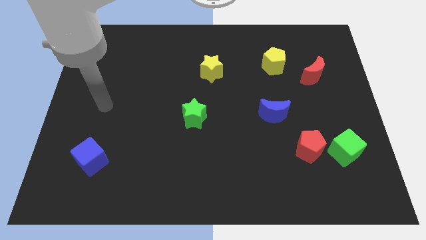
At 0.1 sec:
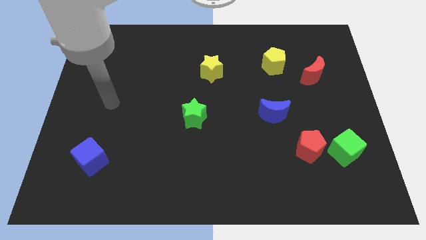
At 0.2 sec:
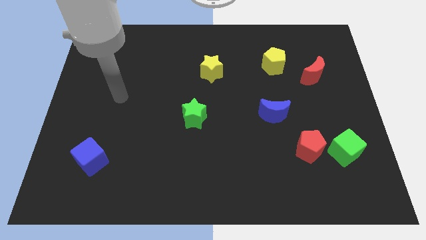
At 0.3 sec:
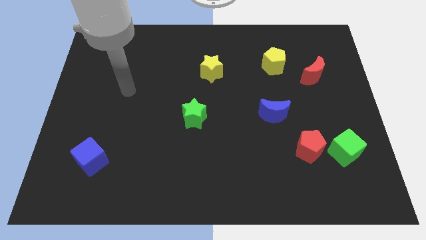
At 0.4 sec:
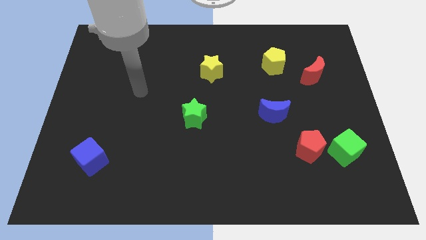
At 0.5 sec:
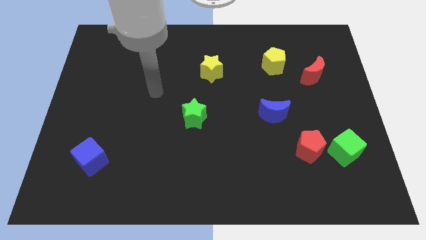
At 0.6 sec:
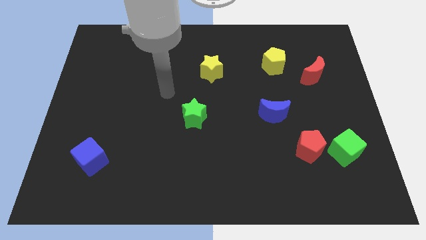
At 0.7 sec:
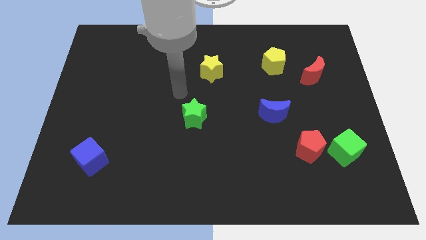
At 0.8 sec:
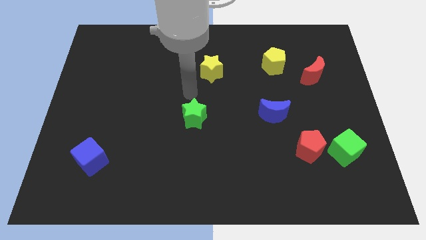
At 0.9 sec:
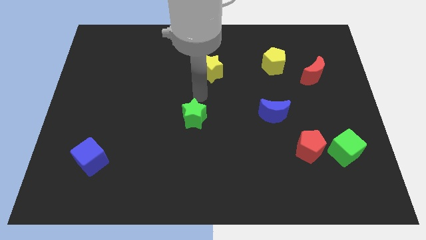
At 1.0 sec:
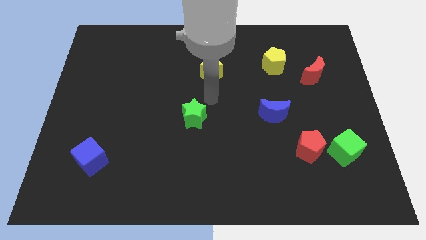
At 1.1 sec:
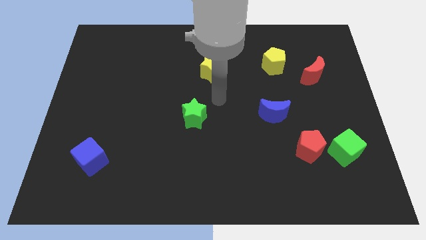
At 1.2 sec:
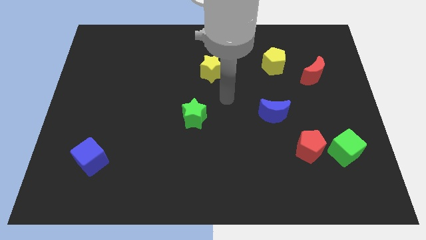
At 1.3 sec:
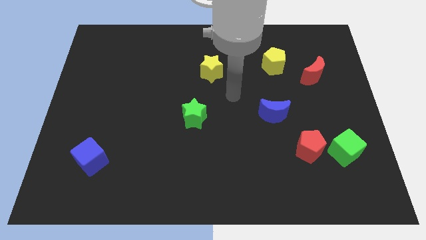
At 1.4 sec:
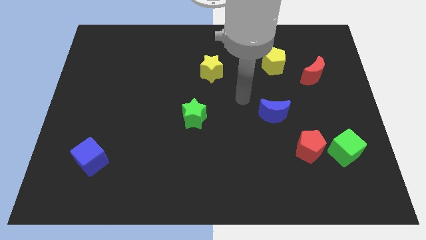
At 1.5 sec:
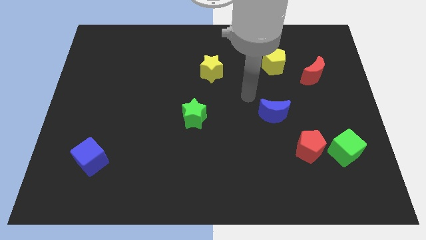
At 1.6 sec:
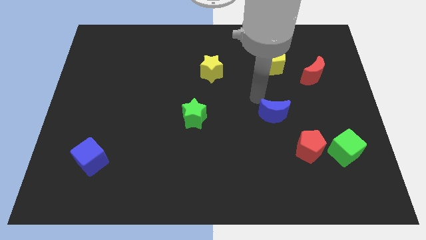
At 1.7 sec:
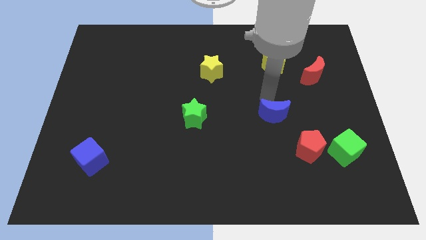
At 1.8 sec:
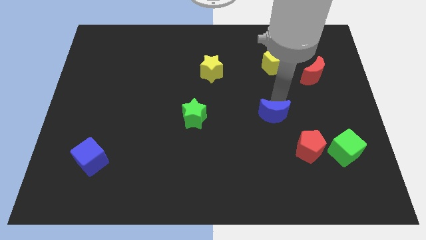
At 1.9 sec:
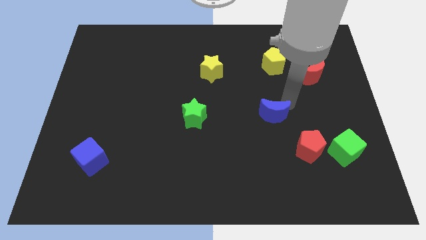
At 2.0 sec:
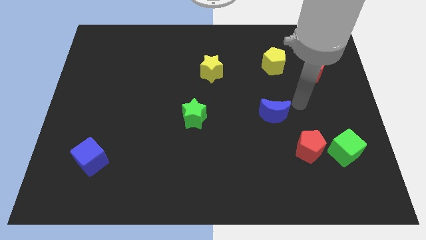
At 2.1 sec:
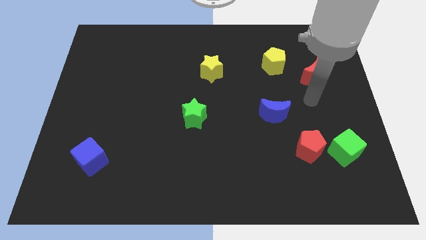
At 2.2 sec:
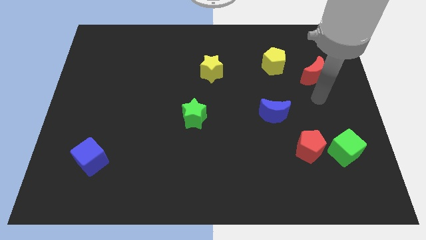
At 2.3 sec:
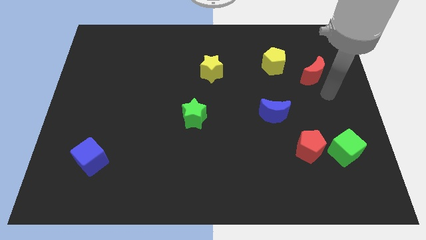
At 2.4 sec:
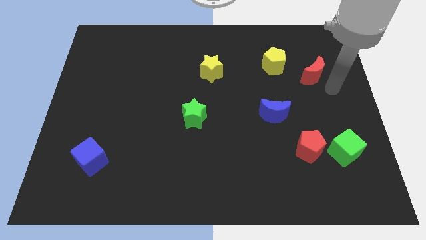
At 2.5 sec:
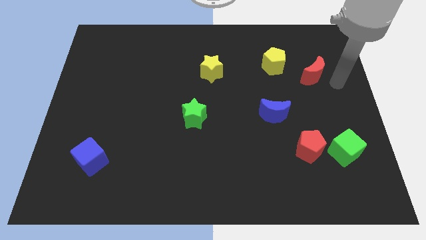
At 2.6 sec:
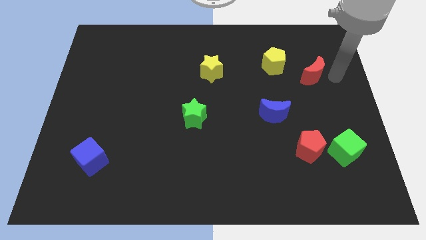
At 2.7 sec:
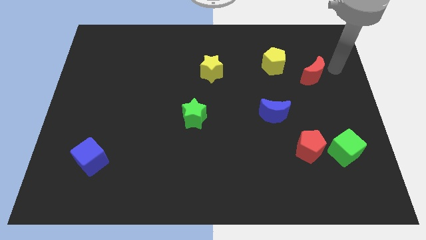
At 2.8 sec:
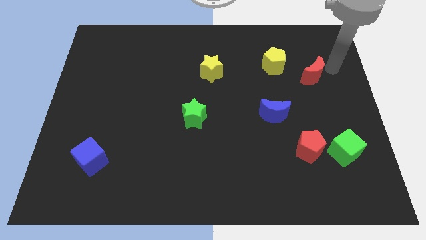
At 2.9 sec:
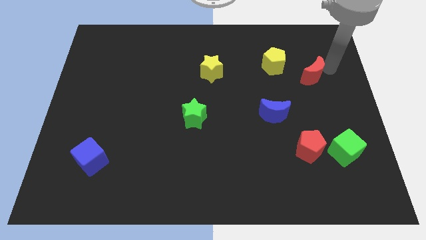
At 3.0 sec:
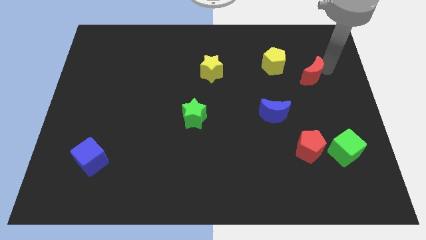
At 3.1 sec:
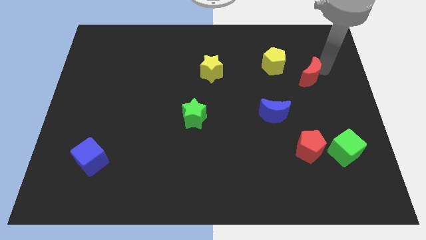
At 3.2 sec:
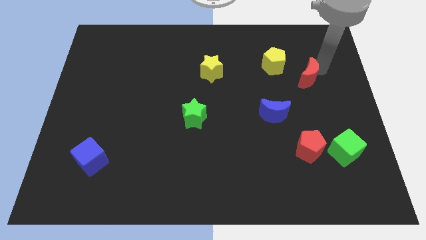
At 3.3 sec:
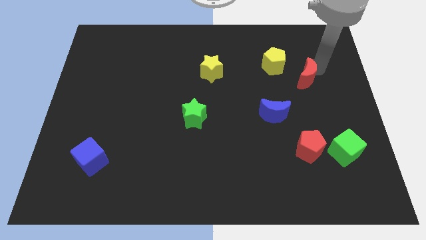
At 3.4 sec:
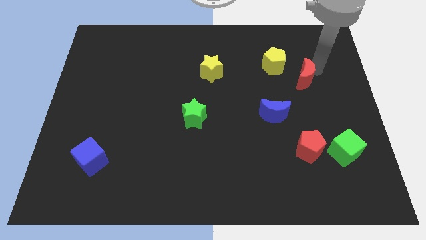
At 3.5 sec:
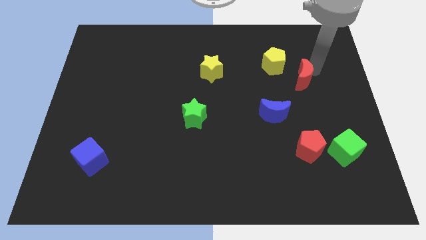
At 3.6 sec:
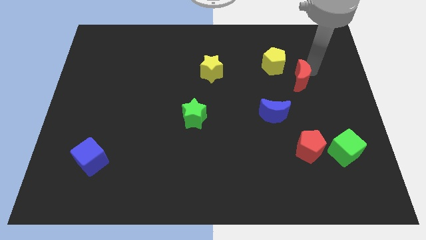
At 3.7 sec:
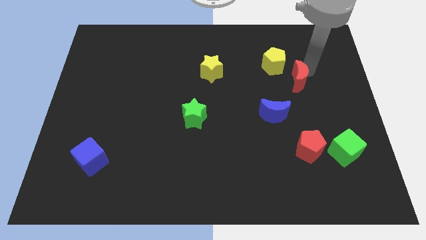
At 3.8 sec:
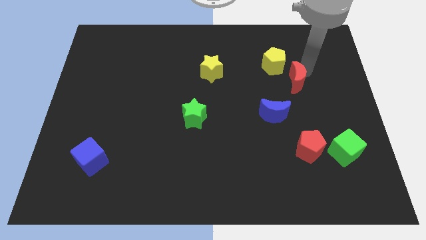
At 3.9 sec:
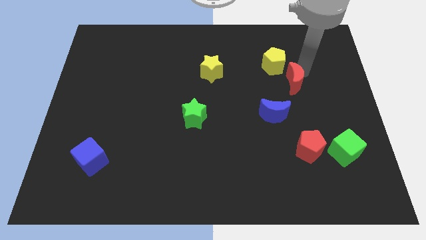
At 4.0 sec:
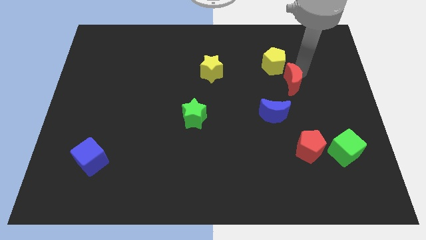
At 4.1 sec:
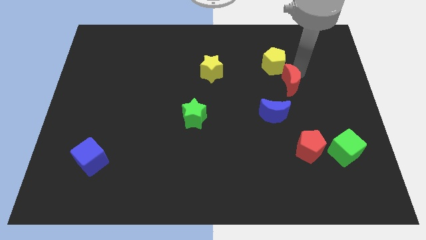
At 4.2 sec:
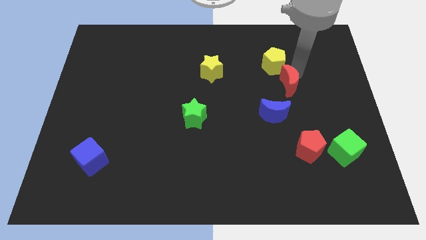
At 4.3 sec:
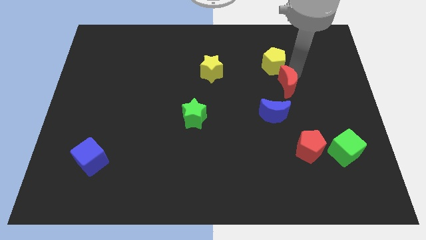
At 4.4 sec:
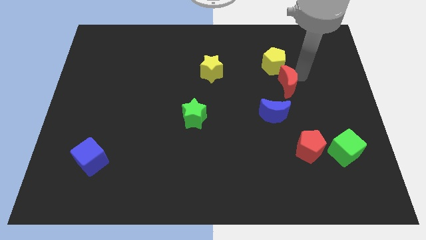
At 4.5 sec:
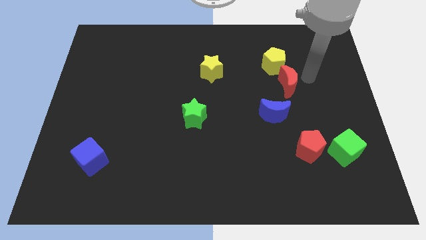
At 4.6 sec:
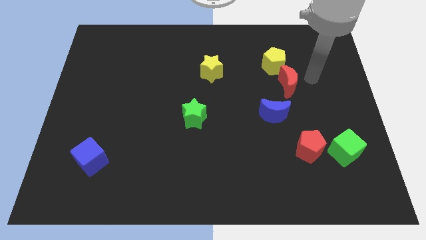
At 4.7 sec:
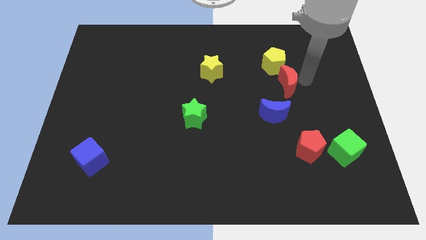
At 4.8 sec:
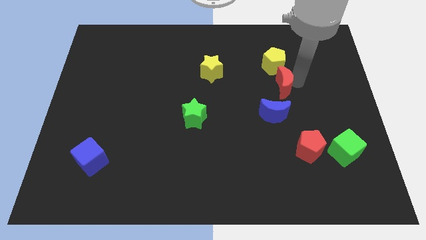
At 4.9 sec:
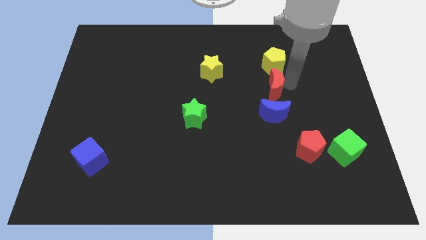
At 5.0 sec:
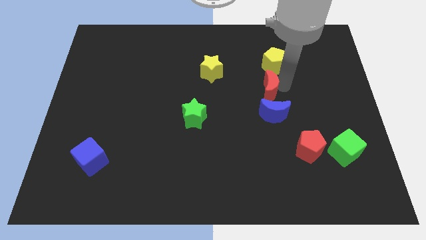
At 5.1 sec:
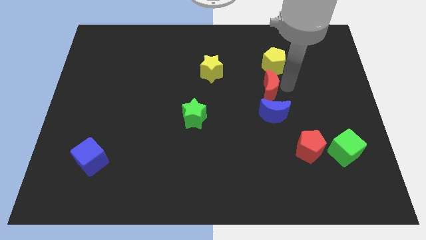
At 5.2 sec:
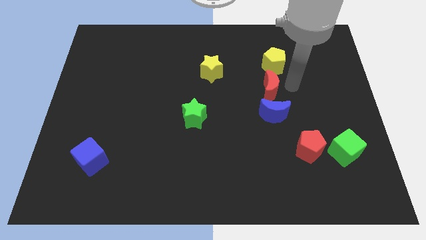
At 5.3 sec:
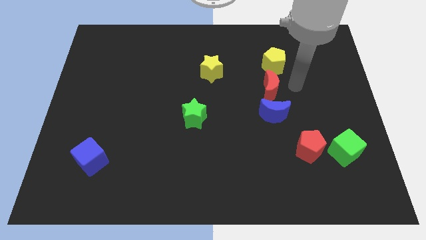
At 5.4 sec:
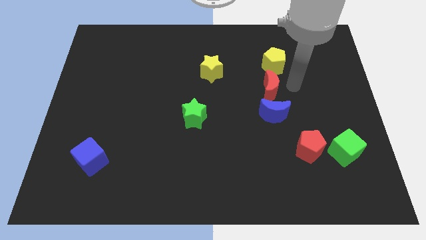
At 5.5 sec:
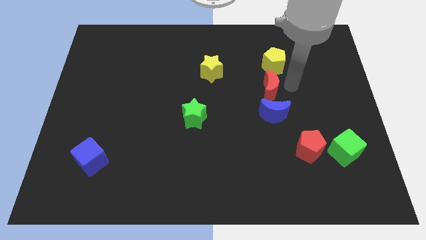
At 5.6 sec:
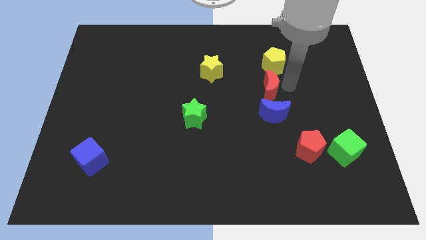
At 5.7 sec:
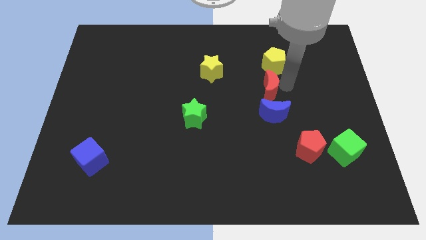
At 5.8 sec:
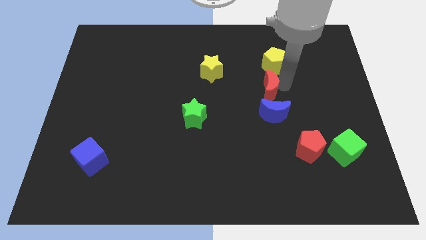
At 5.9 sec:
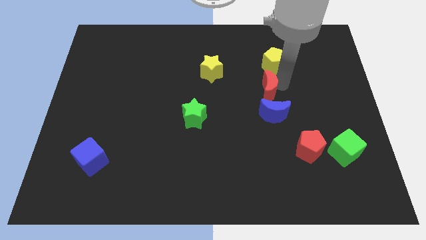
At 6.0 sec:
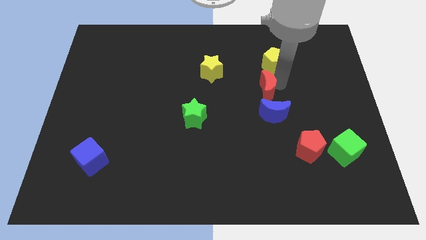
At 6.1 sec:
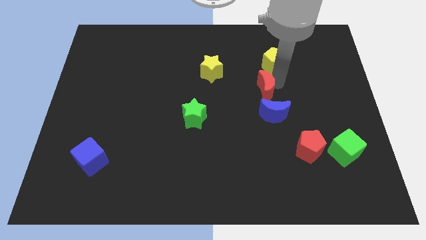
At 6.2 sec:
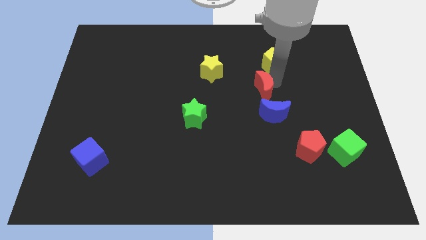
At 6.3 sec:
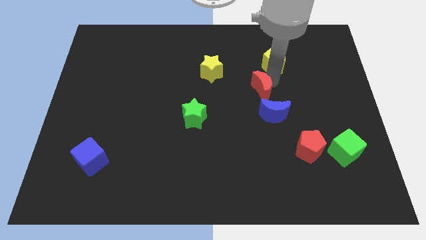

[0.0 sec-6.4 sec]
move the red moon to the middle of the board
